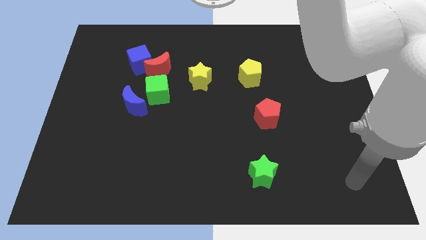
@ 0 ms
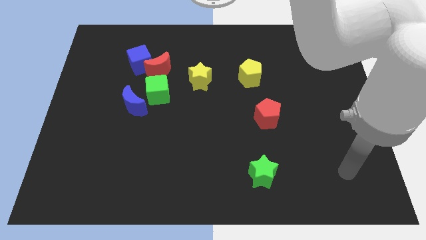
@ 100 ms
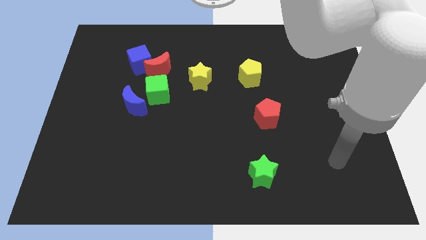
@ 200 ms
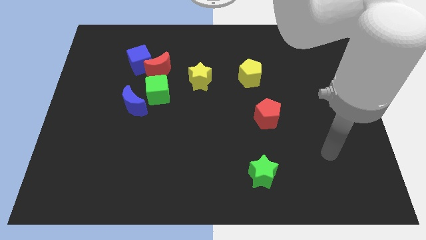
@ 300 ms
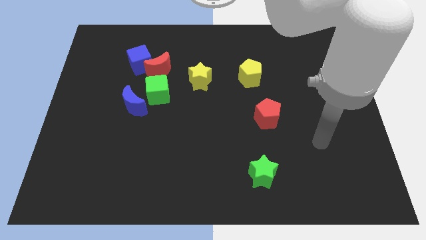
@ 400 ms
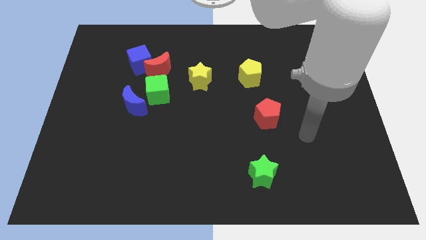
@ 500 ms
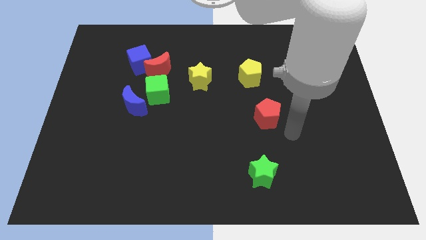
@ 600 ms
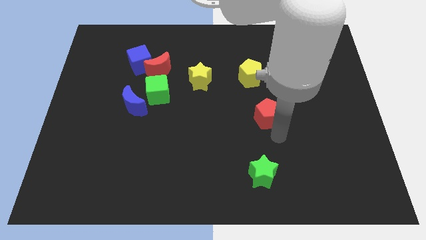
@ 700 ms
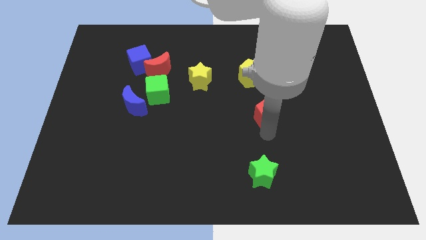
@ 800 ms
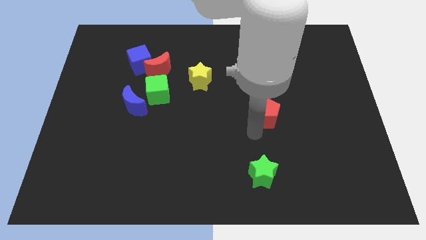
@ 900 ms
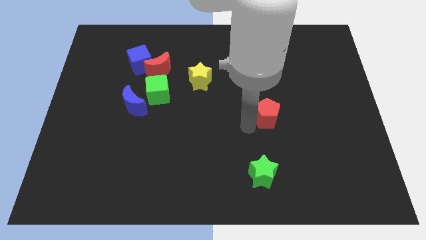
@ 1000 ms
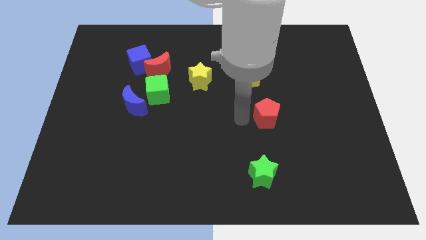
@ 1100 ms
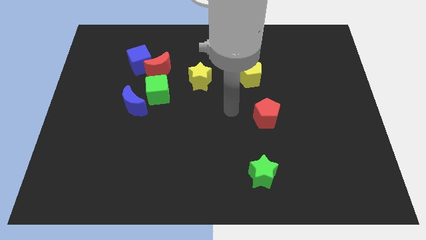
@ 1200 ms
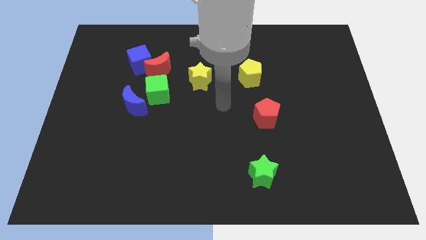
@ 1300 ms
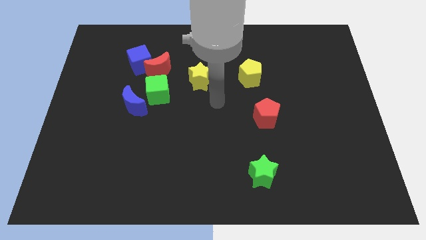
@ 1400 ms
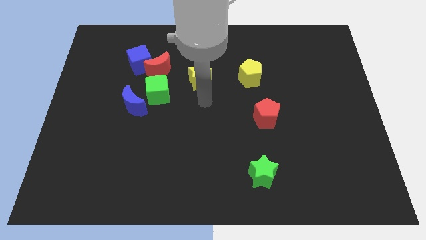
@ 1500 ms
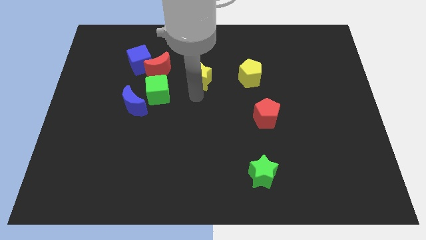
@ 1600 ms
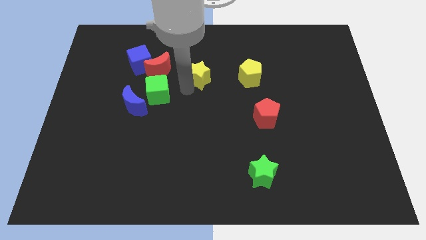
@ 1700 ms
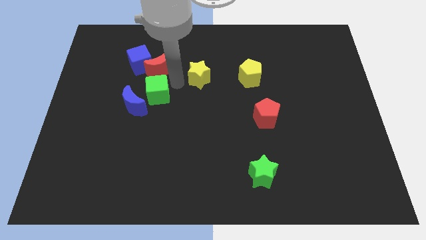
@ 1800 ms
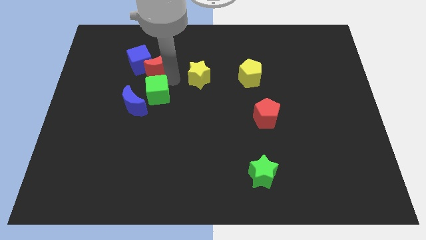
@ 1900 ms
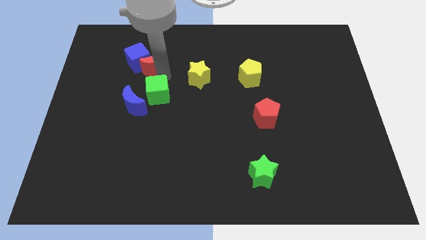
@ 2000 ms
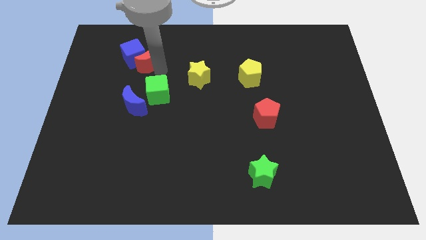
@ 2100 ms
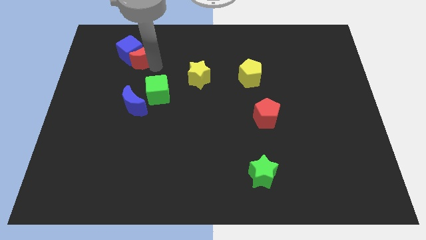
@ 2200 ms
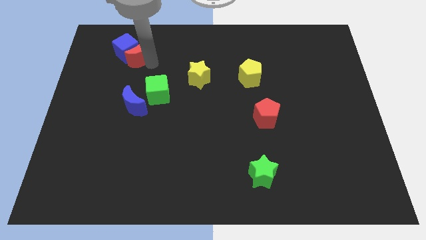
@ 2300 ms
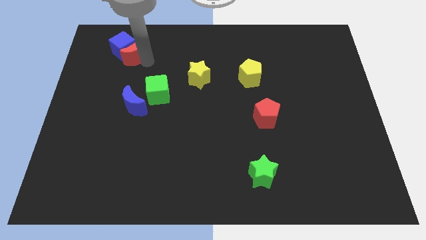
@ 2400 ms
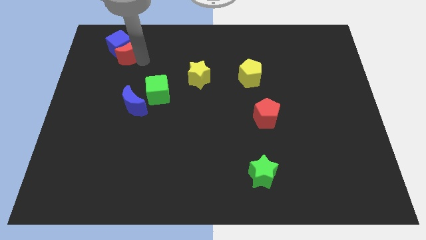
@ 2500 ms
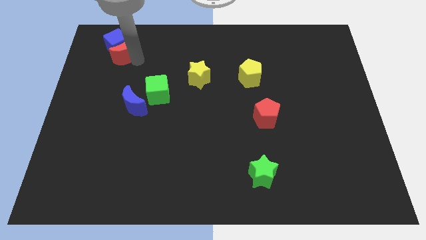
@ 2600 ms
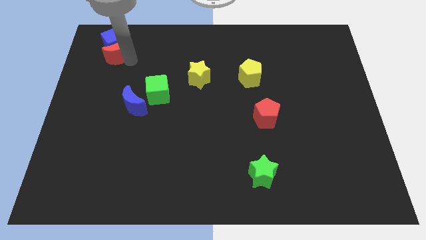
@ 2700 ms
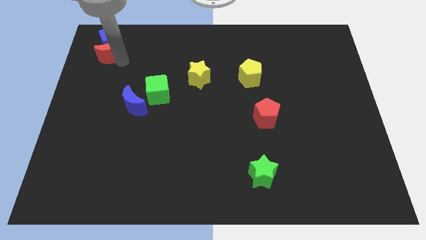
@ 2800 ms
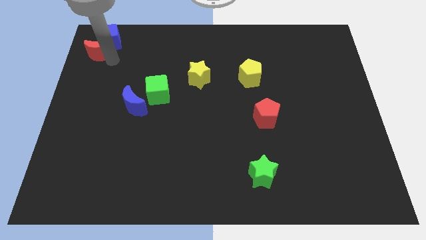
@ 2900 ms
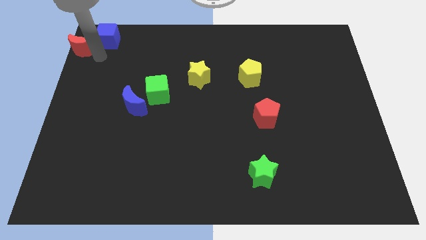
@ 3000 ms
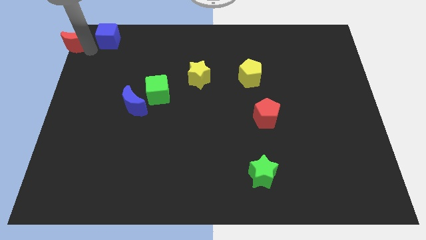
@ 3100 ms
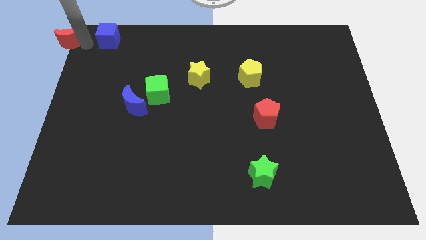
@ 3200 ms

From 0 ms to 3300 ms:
pull the blue cube apart from the red moon

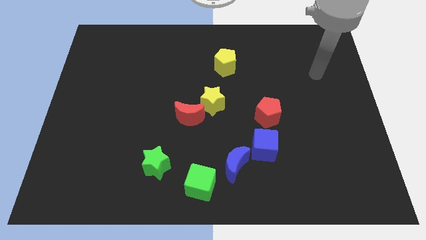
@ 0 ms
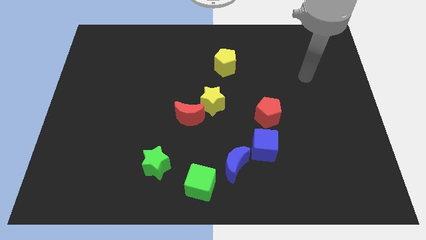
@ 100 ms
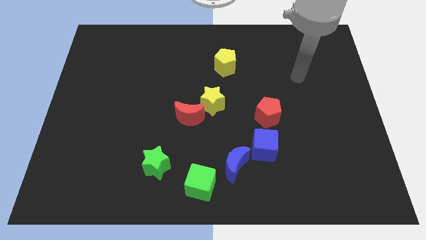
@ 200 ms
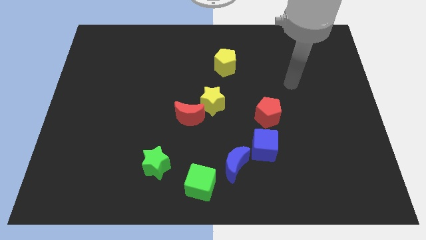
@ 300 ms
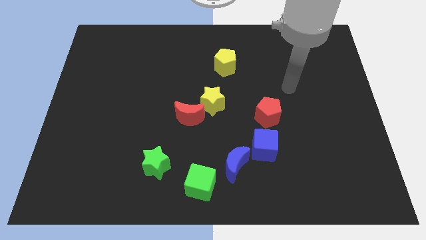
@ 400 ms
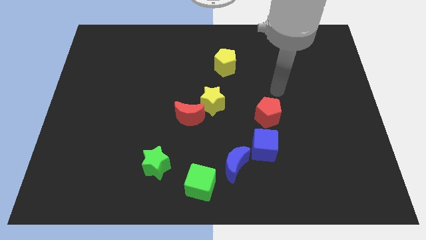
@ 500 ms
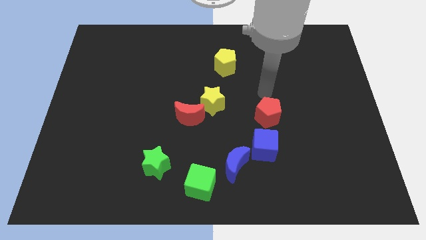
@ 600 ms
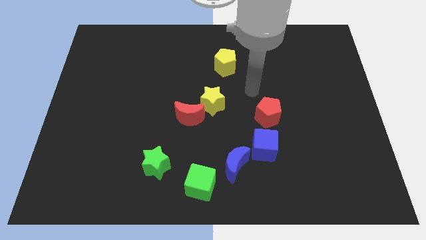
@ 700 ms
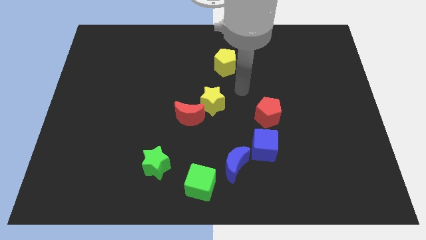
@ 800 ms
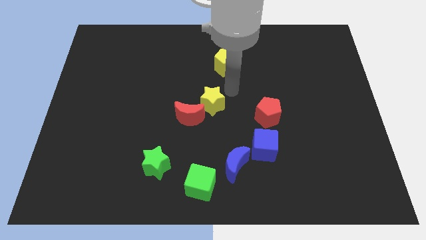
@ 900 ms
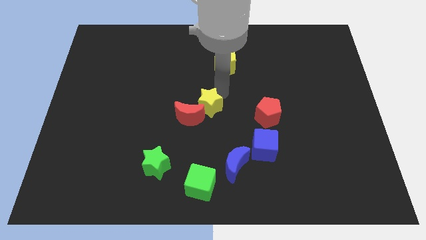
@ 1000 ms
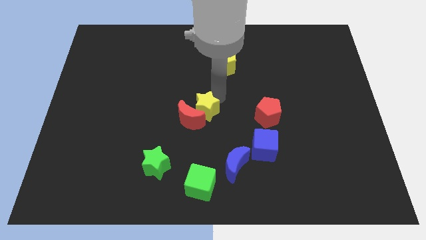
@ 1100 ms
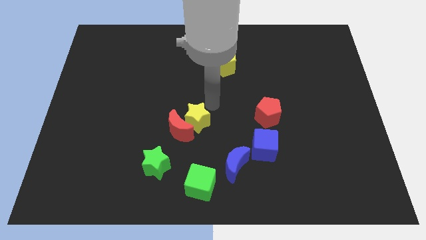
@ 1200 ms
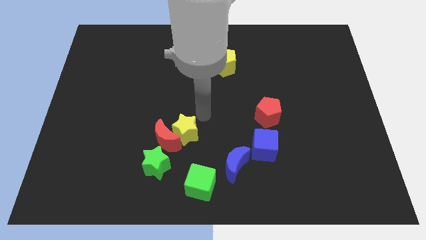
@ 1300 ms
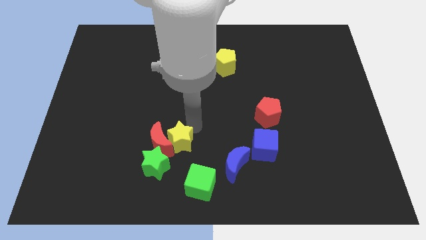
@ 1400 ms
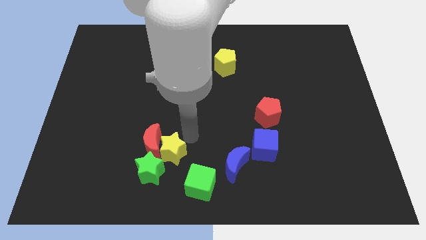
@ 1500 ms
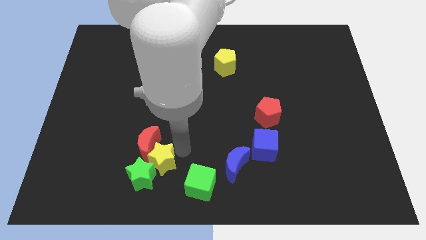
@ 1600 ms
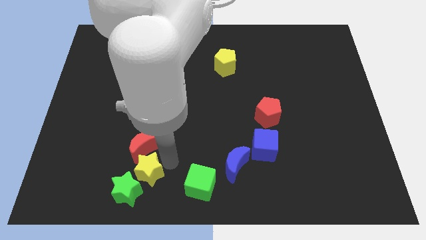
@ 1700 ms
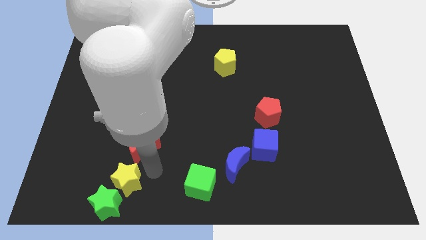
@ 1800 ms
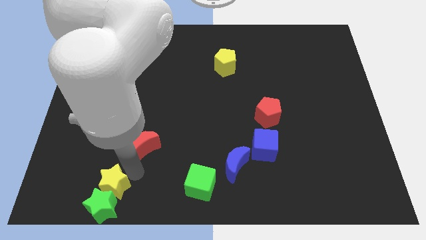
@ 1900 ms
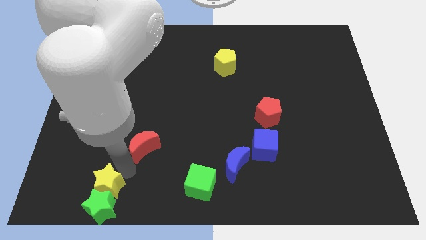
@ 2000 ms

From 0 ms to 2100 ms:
pull the red moon apart from the yellow star

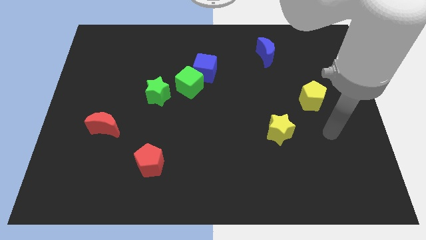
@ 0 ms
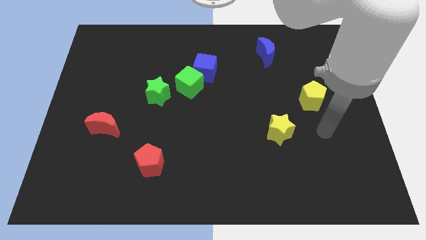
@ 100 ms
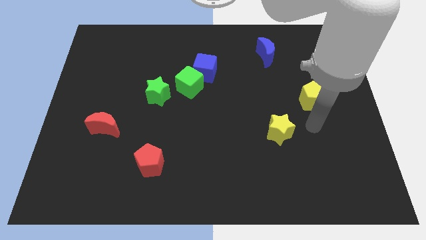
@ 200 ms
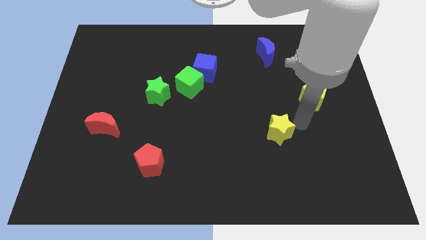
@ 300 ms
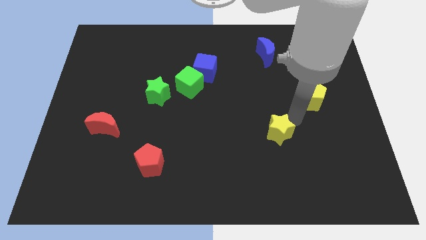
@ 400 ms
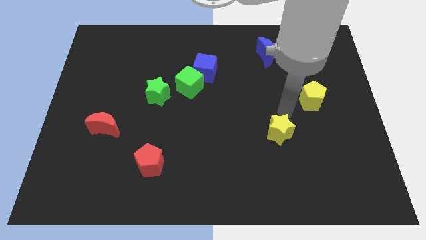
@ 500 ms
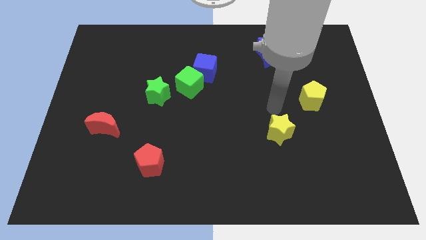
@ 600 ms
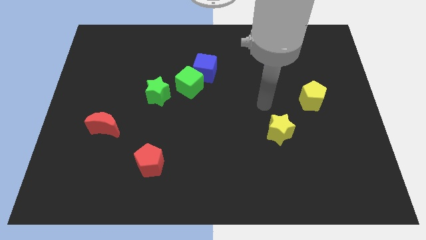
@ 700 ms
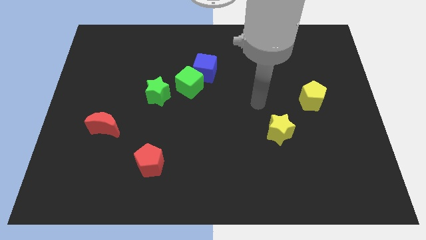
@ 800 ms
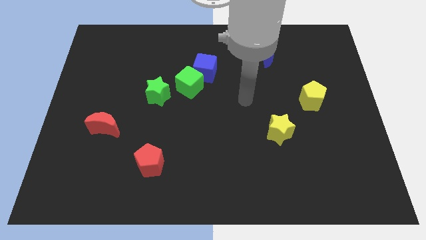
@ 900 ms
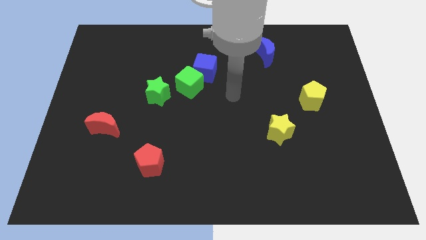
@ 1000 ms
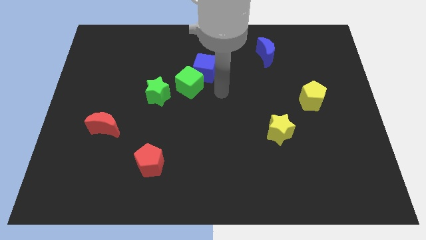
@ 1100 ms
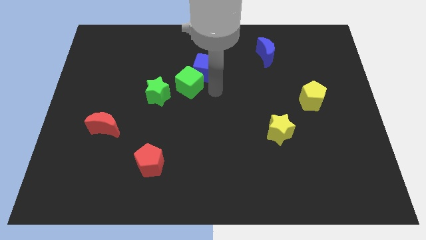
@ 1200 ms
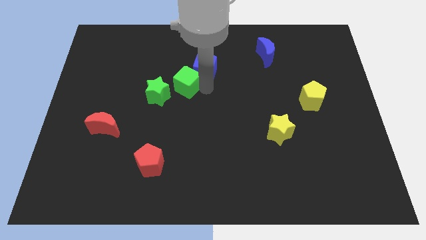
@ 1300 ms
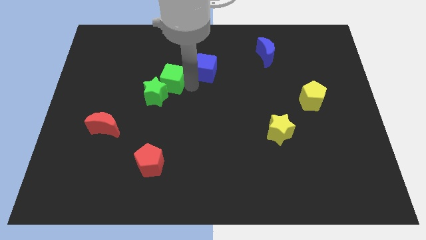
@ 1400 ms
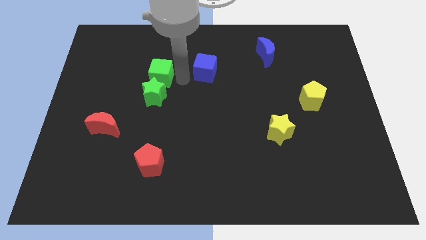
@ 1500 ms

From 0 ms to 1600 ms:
pull the blue cube apart from the green cube

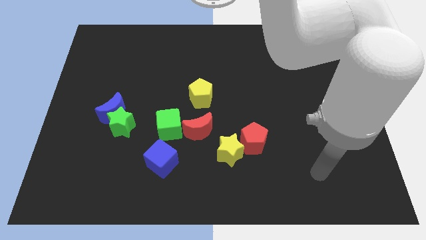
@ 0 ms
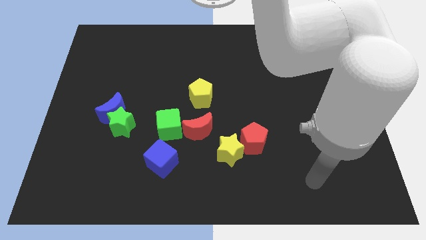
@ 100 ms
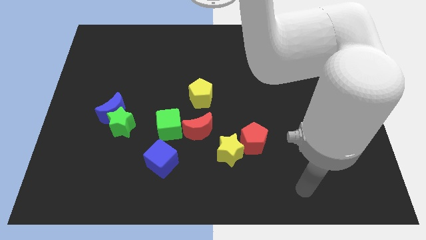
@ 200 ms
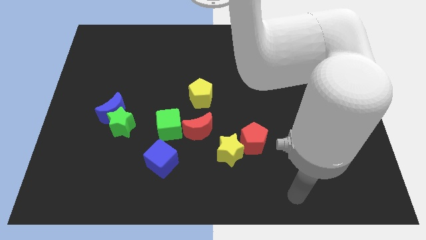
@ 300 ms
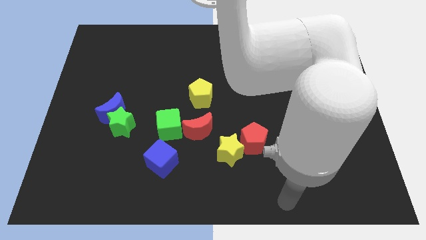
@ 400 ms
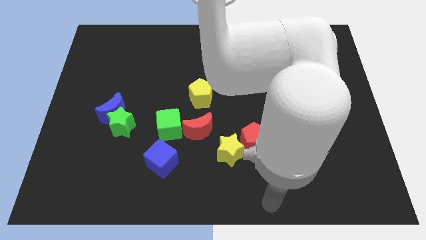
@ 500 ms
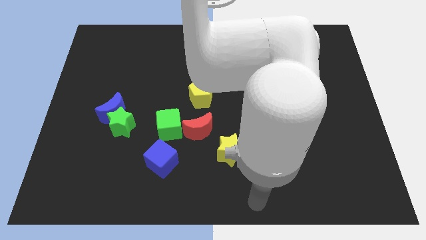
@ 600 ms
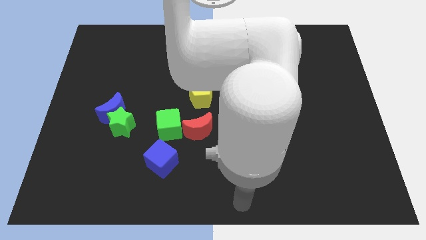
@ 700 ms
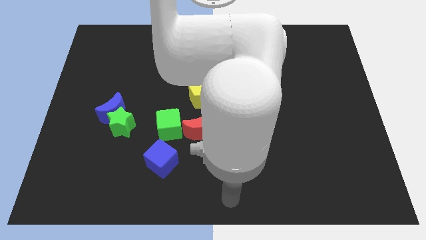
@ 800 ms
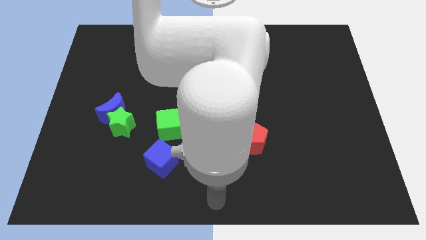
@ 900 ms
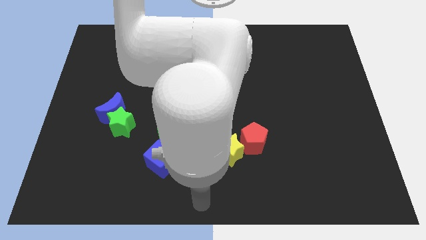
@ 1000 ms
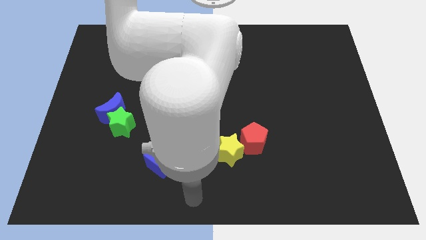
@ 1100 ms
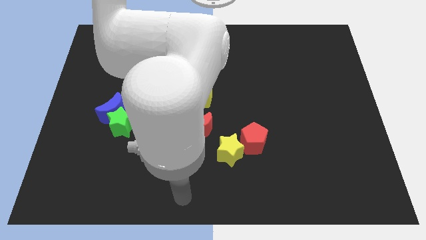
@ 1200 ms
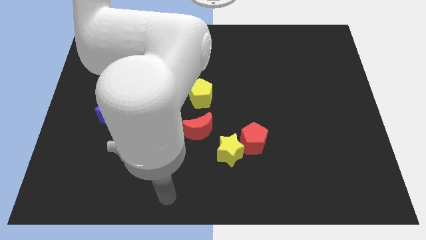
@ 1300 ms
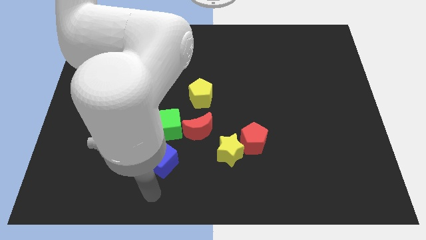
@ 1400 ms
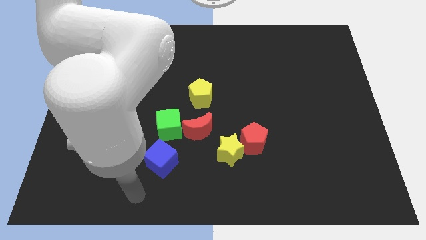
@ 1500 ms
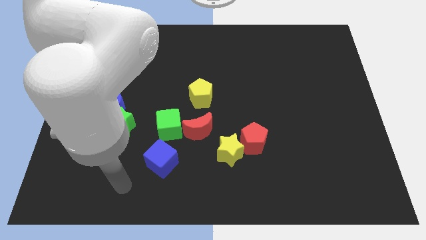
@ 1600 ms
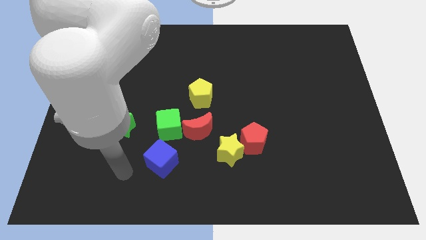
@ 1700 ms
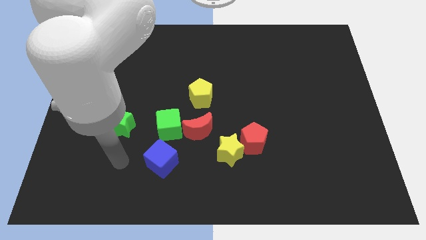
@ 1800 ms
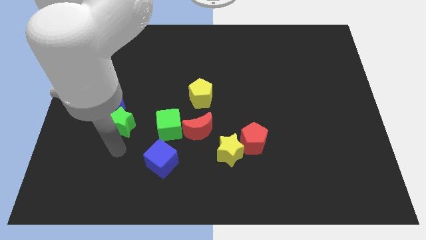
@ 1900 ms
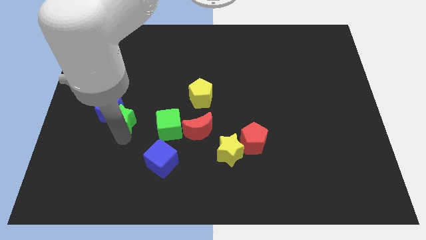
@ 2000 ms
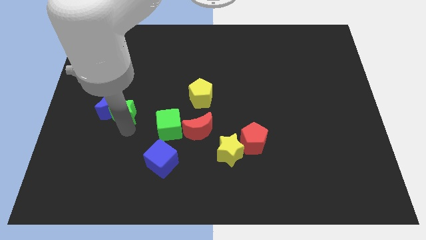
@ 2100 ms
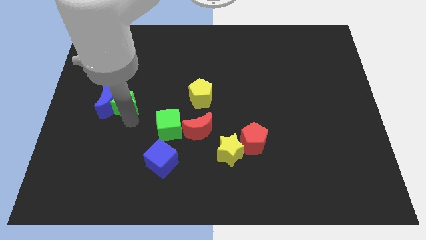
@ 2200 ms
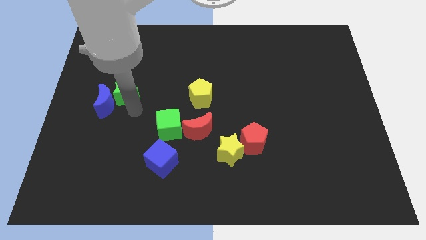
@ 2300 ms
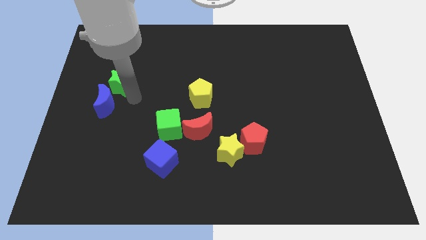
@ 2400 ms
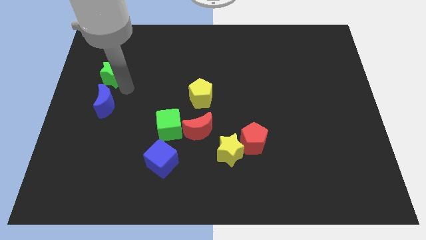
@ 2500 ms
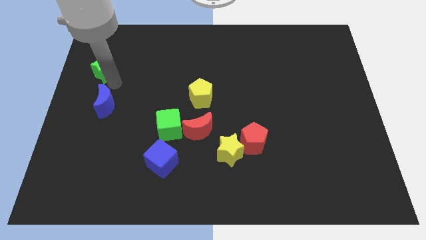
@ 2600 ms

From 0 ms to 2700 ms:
separate the blue moon from the green star
